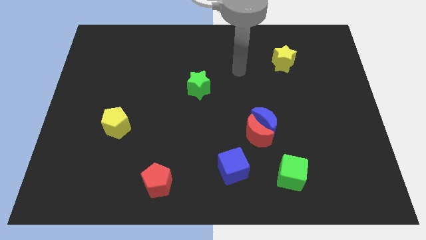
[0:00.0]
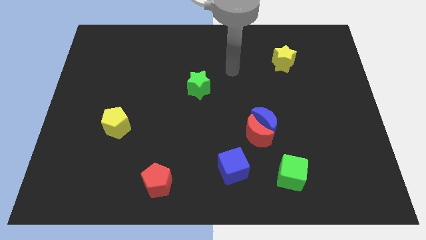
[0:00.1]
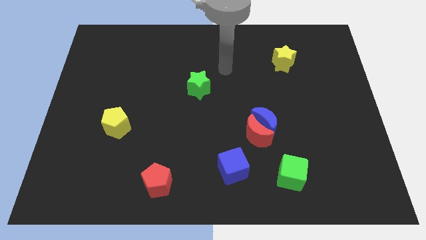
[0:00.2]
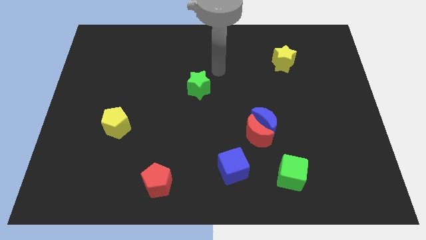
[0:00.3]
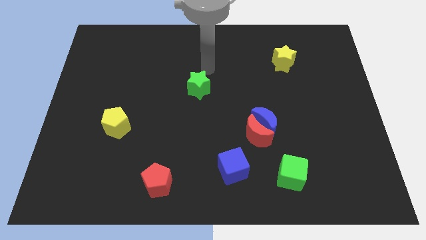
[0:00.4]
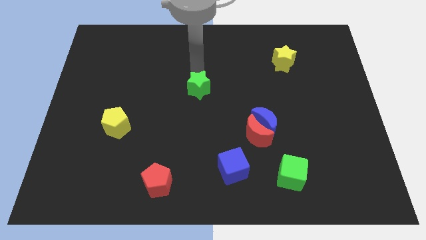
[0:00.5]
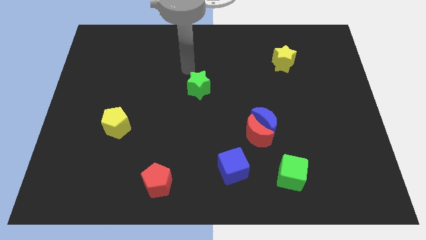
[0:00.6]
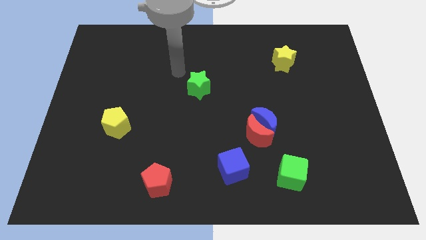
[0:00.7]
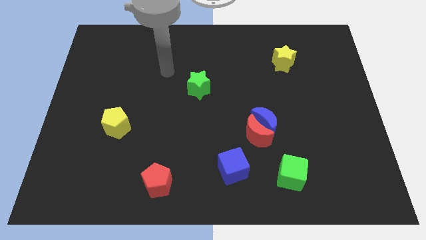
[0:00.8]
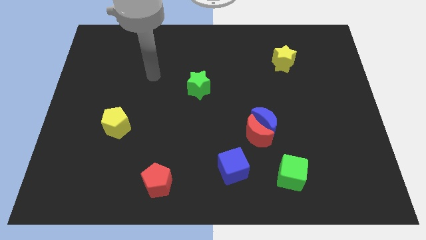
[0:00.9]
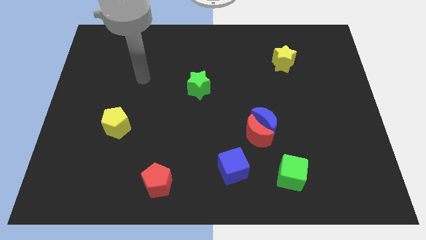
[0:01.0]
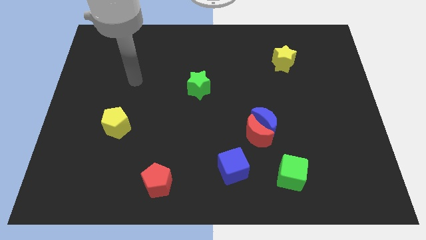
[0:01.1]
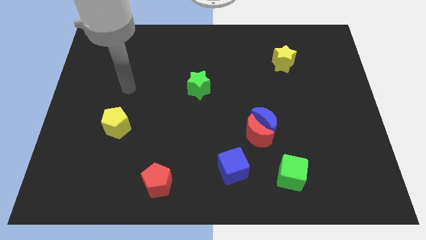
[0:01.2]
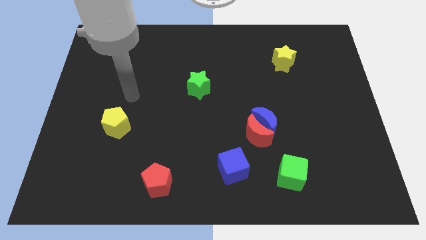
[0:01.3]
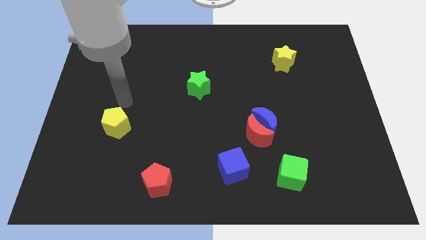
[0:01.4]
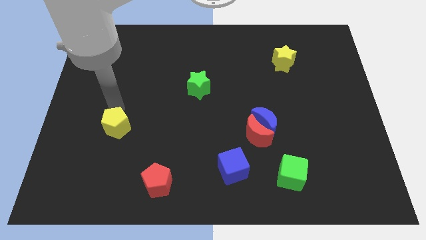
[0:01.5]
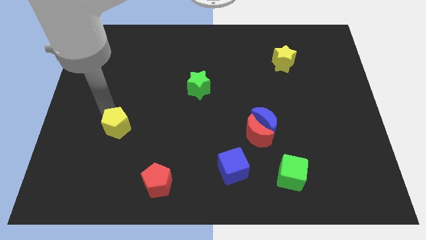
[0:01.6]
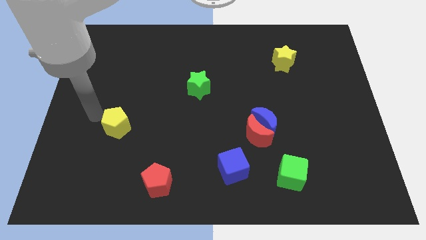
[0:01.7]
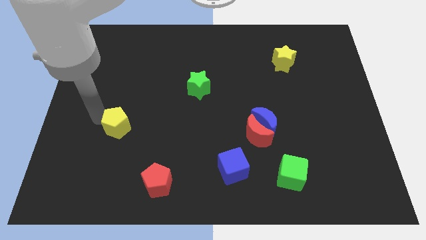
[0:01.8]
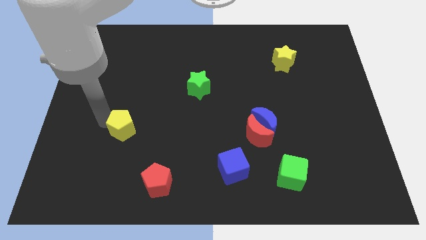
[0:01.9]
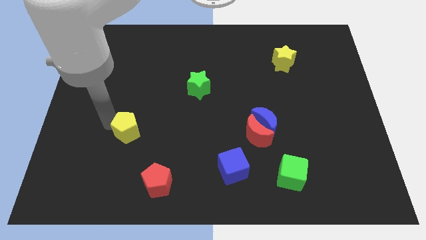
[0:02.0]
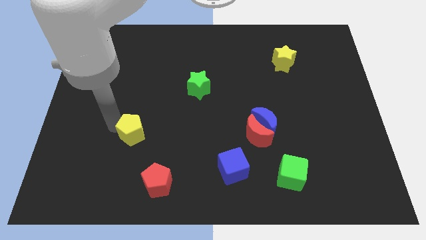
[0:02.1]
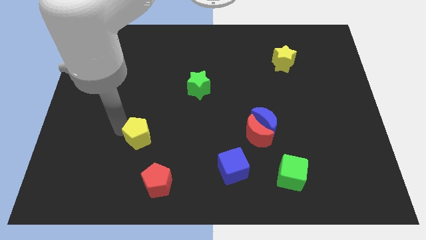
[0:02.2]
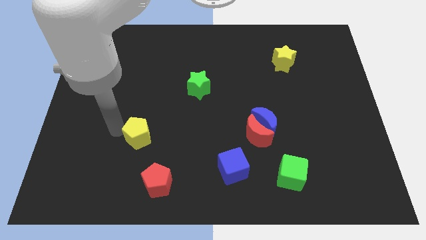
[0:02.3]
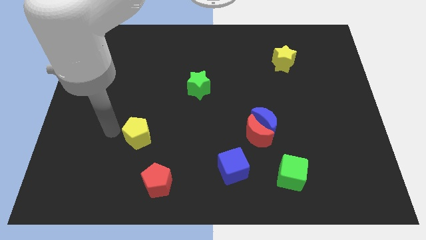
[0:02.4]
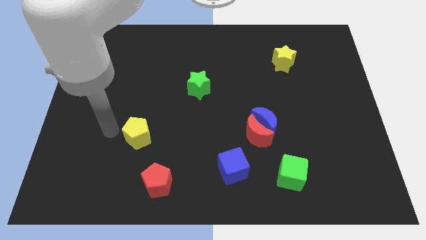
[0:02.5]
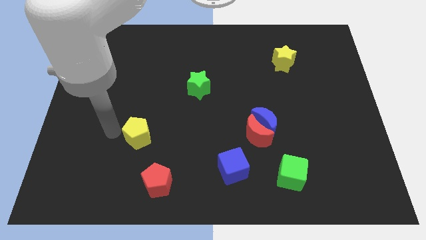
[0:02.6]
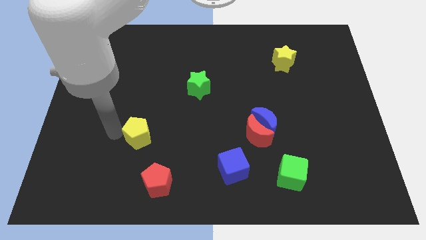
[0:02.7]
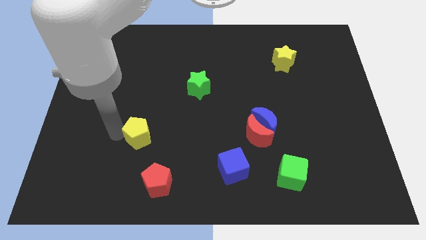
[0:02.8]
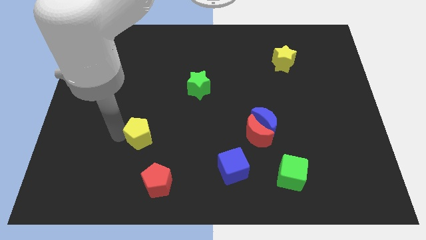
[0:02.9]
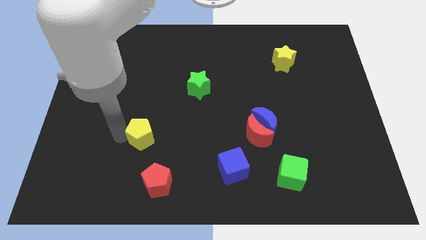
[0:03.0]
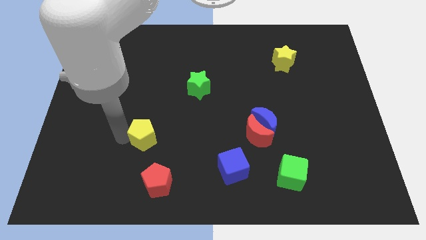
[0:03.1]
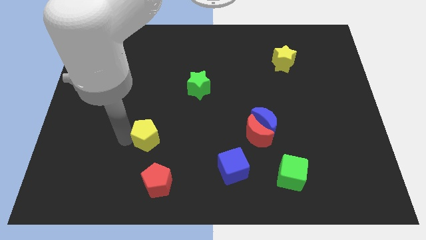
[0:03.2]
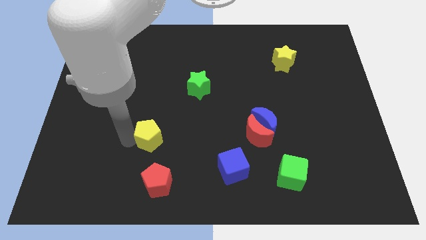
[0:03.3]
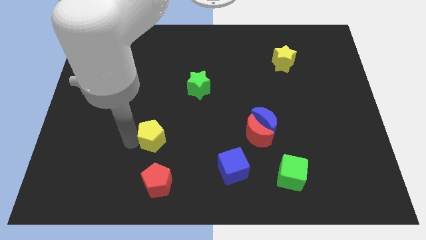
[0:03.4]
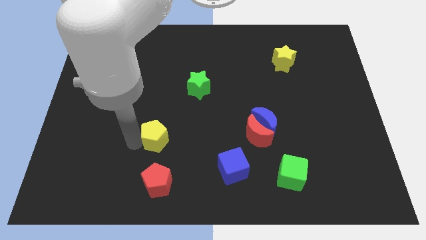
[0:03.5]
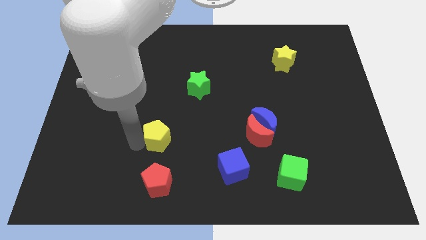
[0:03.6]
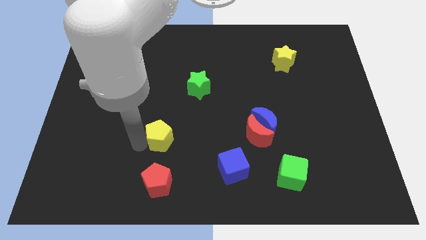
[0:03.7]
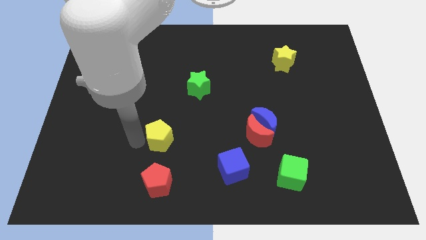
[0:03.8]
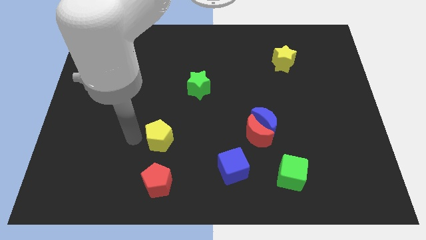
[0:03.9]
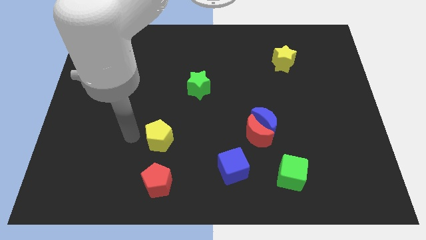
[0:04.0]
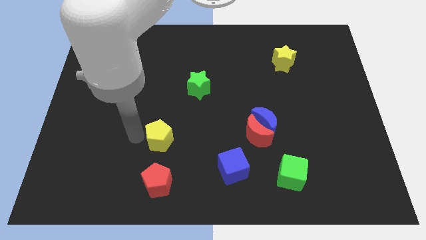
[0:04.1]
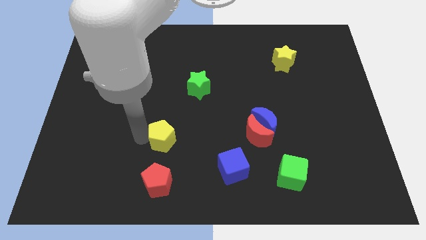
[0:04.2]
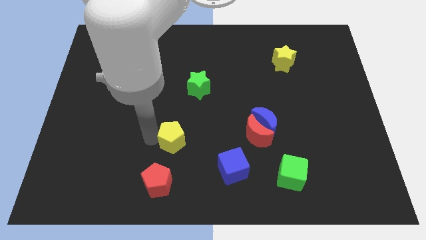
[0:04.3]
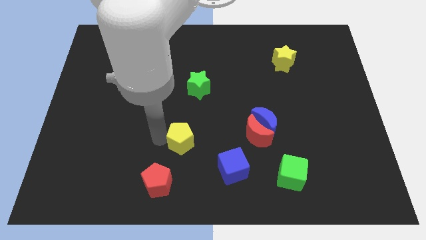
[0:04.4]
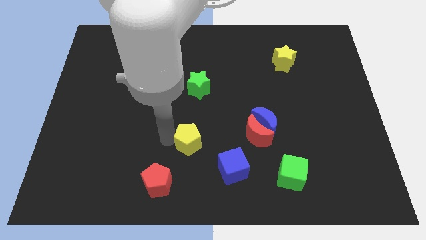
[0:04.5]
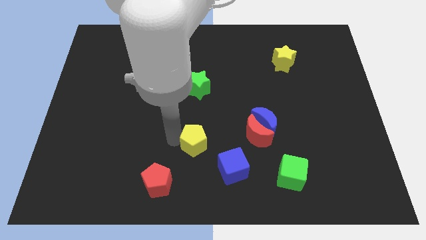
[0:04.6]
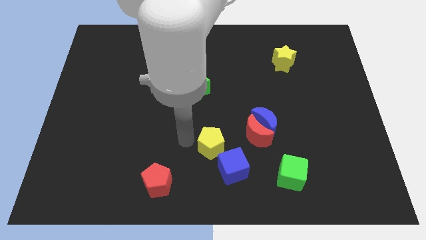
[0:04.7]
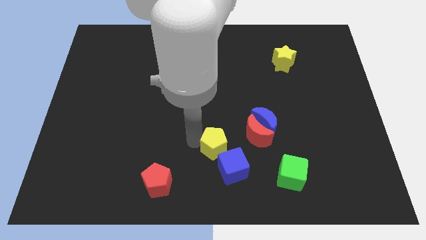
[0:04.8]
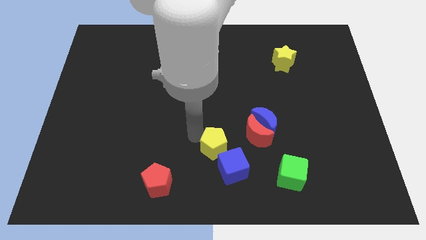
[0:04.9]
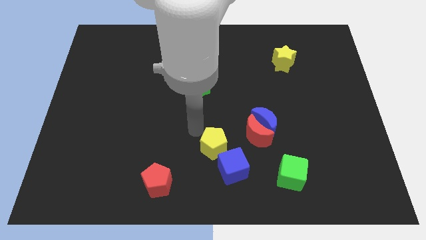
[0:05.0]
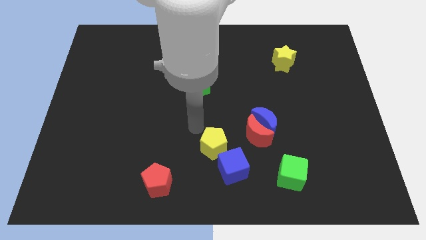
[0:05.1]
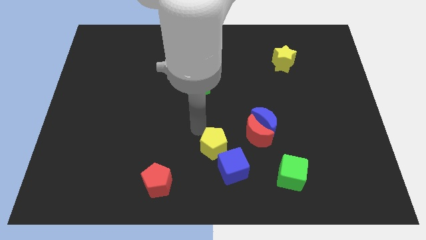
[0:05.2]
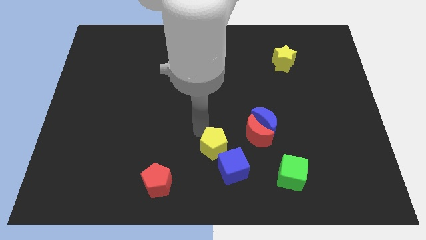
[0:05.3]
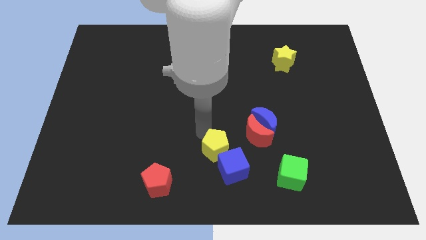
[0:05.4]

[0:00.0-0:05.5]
slide the yellow pentagon close to the blue cube

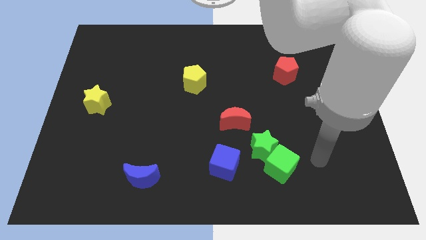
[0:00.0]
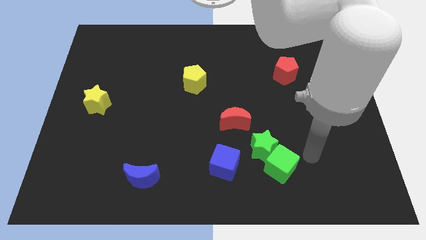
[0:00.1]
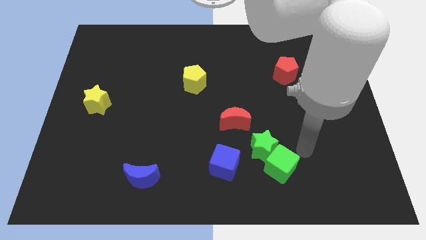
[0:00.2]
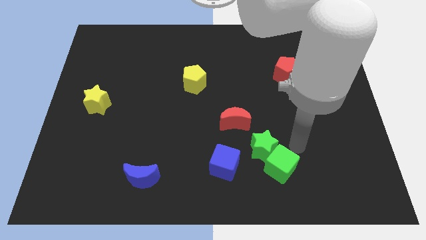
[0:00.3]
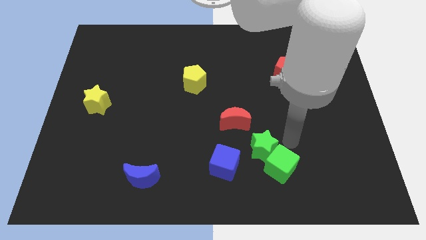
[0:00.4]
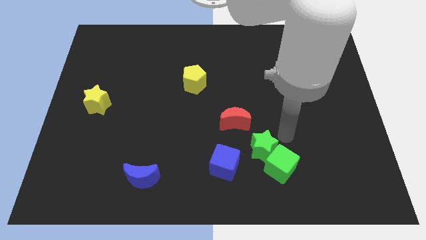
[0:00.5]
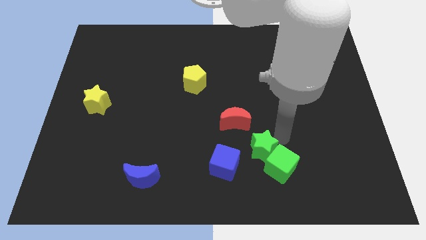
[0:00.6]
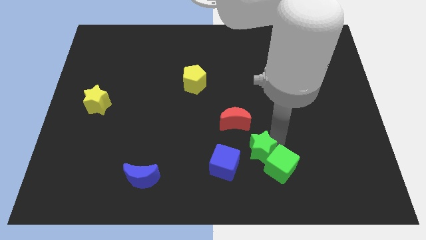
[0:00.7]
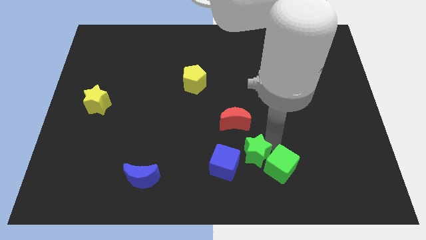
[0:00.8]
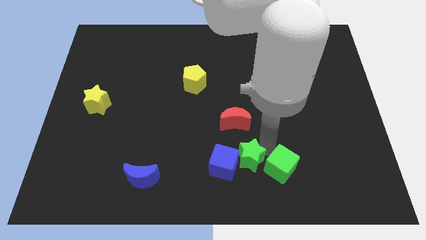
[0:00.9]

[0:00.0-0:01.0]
push the green star next to the blue cube
